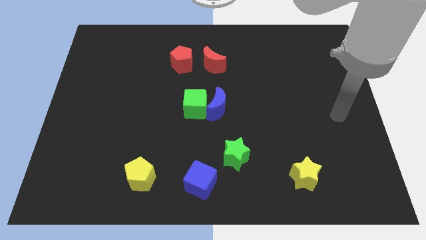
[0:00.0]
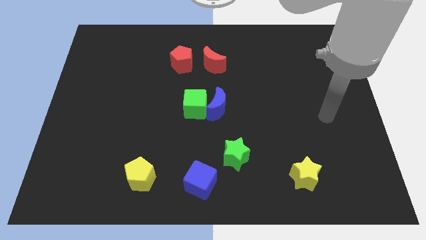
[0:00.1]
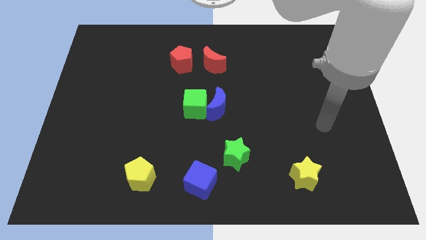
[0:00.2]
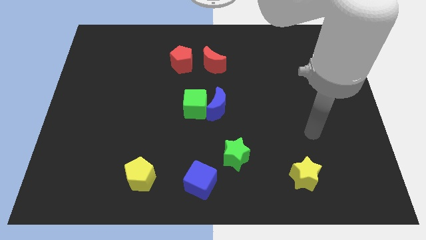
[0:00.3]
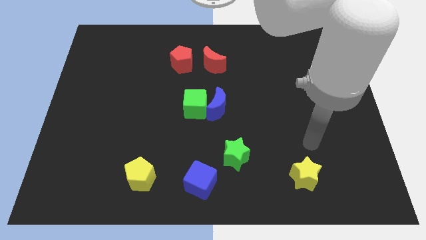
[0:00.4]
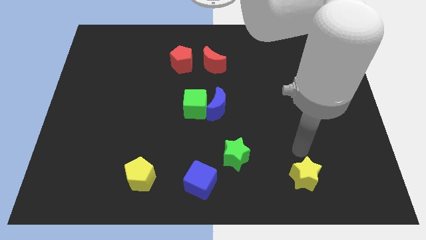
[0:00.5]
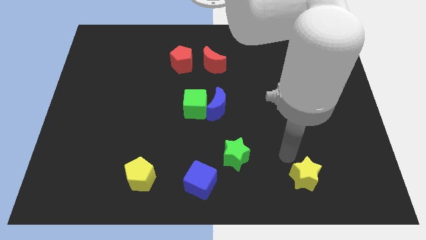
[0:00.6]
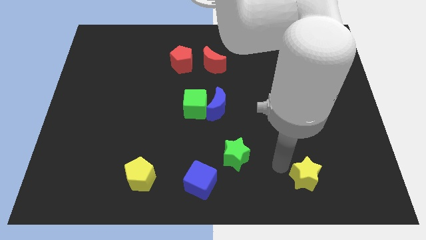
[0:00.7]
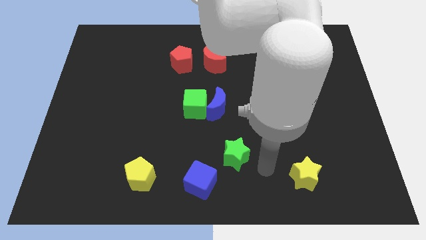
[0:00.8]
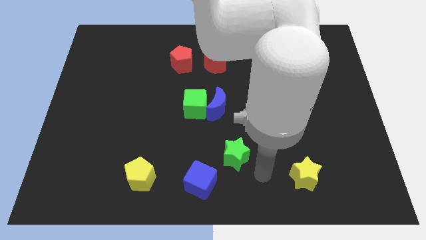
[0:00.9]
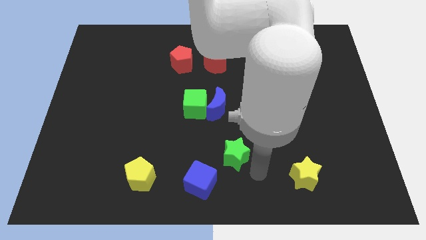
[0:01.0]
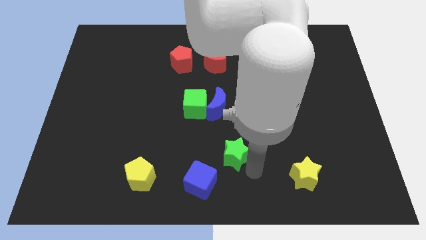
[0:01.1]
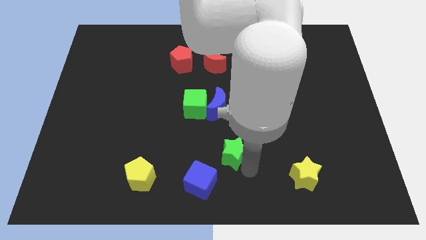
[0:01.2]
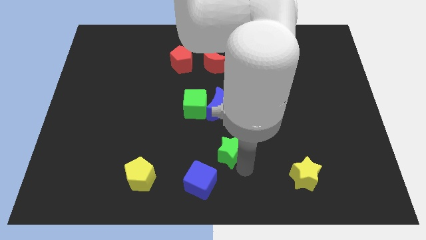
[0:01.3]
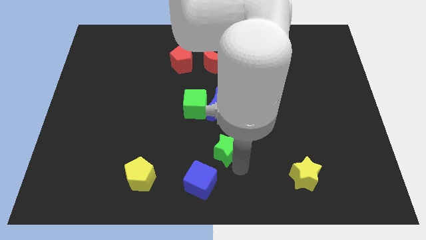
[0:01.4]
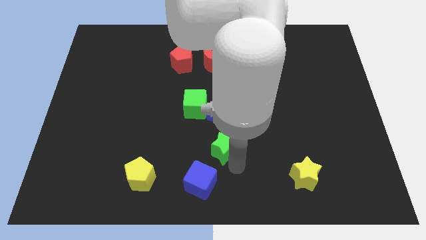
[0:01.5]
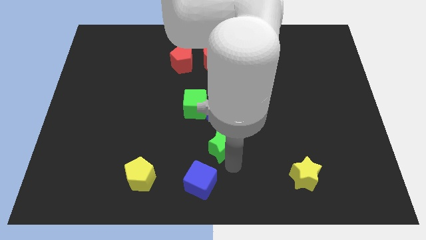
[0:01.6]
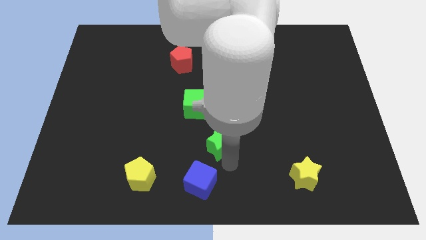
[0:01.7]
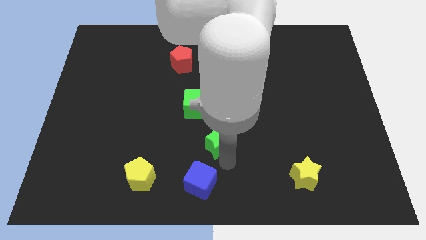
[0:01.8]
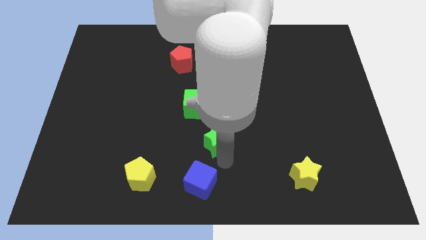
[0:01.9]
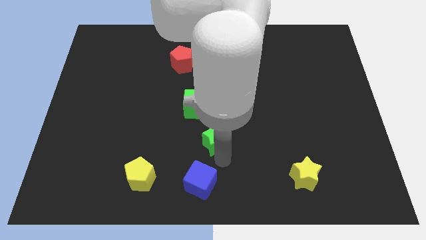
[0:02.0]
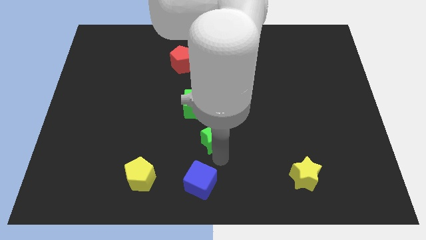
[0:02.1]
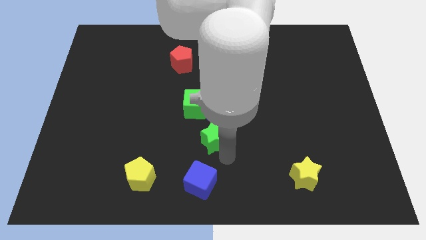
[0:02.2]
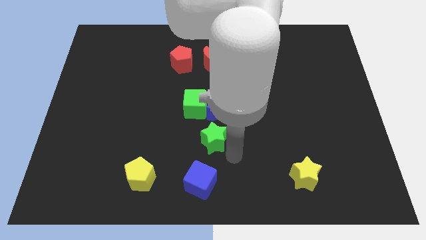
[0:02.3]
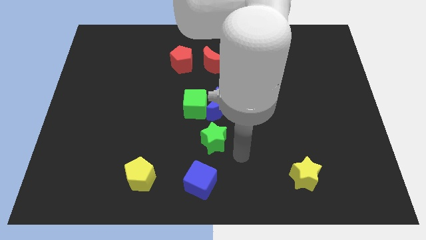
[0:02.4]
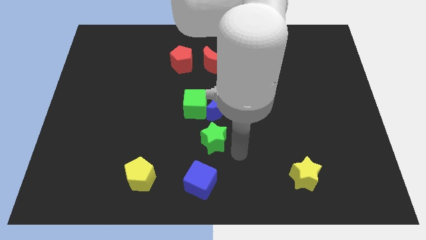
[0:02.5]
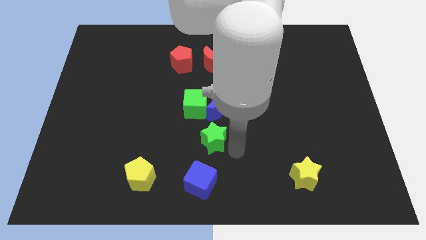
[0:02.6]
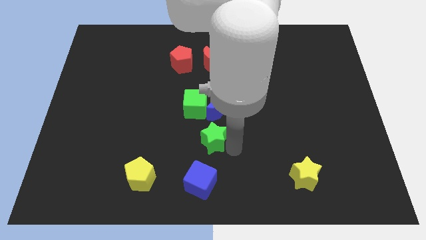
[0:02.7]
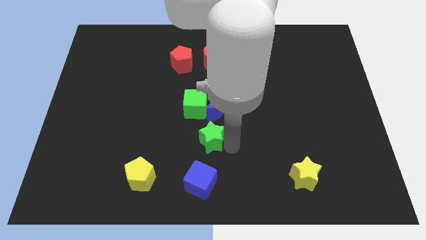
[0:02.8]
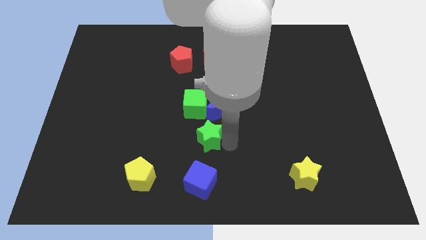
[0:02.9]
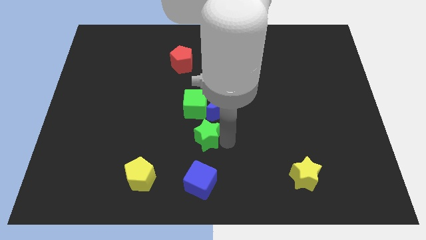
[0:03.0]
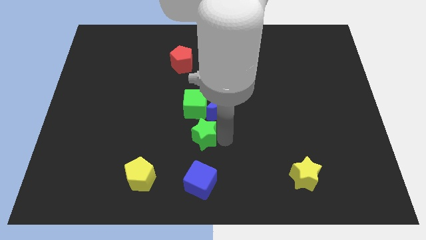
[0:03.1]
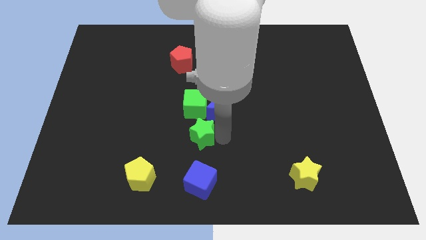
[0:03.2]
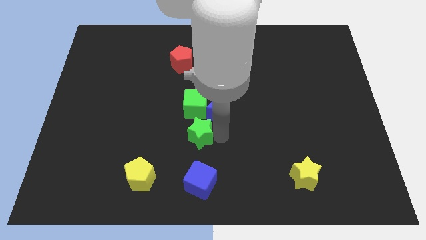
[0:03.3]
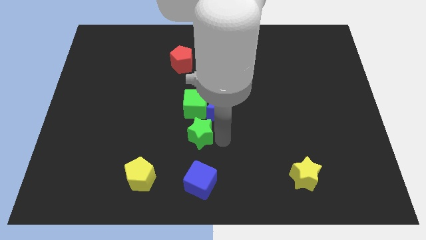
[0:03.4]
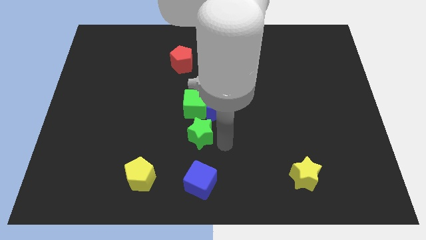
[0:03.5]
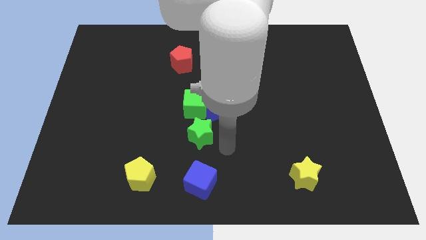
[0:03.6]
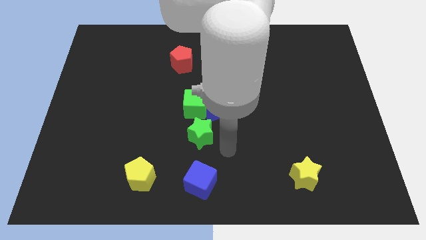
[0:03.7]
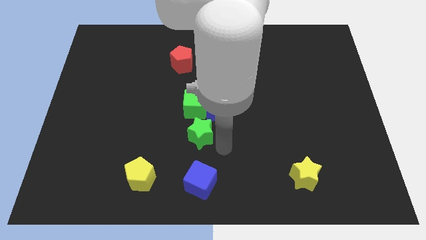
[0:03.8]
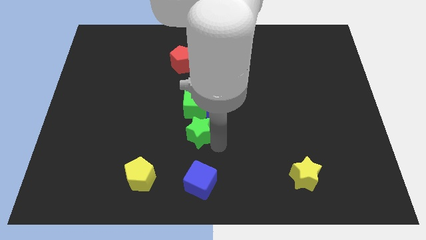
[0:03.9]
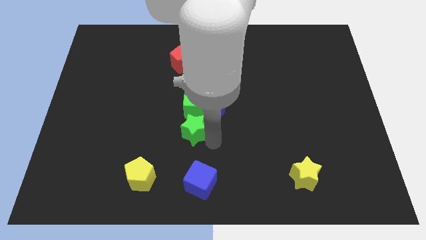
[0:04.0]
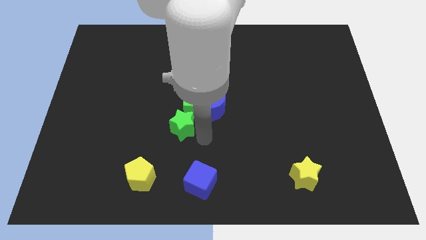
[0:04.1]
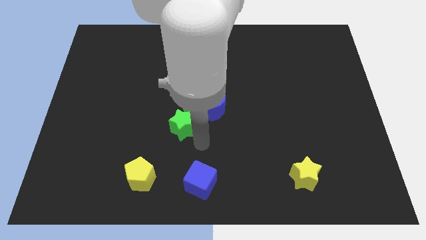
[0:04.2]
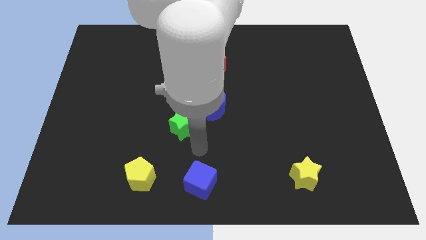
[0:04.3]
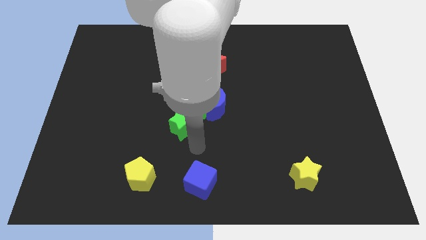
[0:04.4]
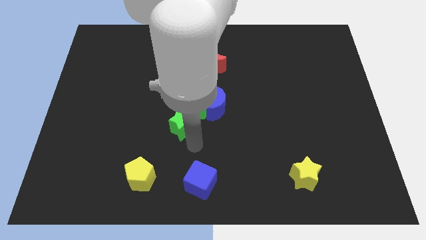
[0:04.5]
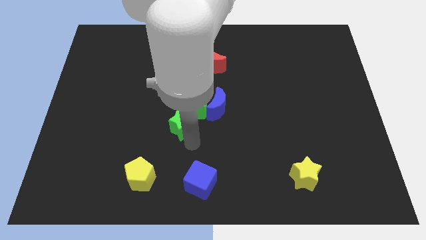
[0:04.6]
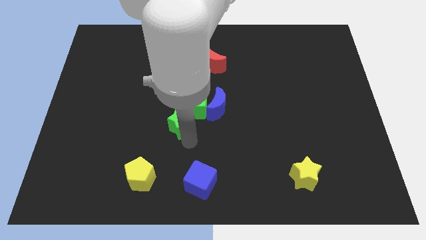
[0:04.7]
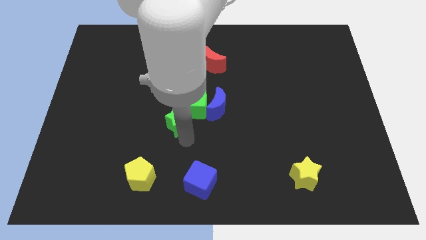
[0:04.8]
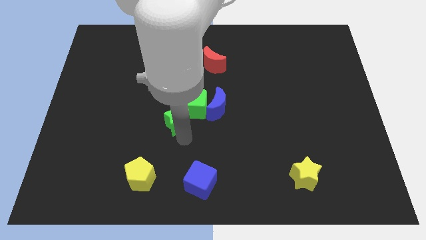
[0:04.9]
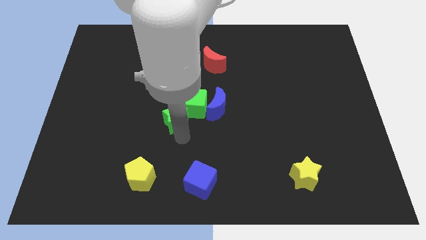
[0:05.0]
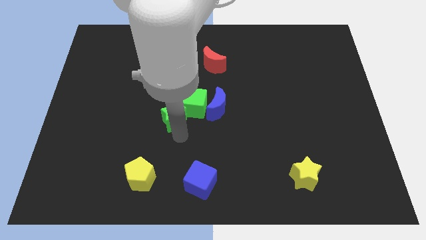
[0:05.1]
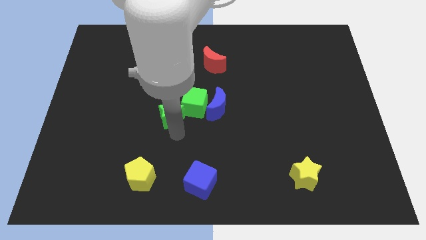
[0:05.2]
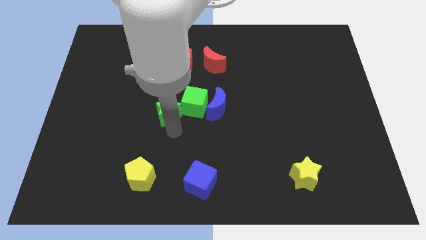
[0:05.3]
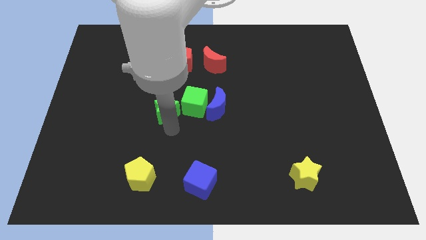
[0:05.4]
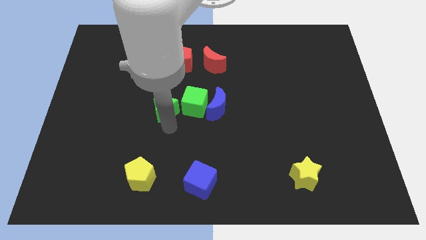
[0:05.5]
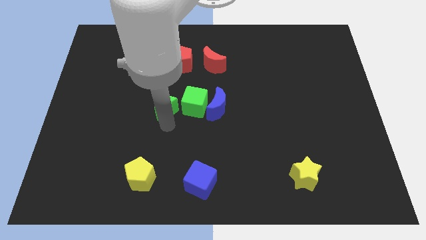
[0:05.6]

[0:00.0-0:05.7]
slide the green star upwards and left

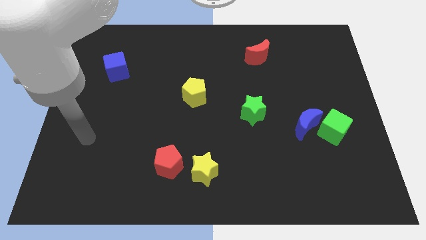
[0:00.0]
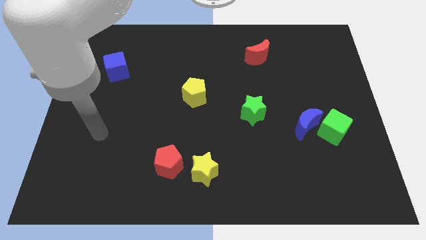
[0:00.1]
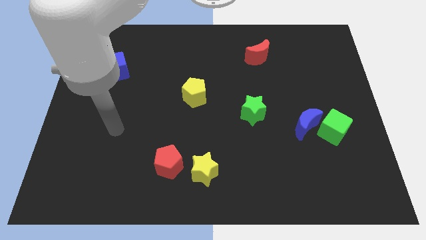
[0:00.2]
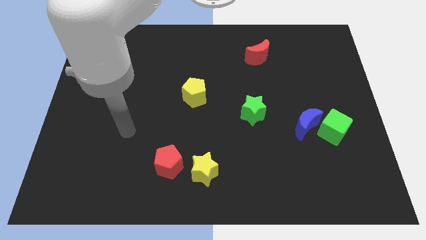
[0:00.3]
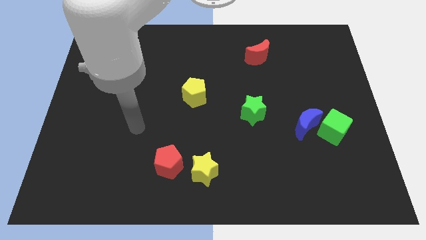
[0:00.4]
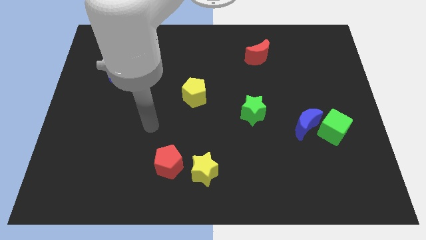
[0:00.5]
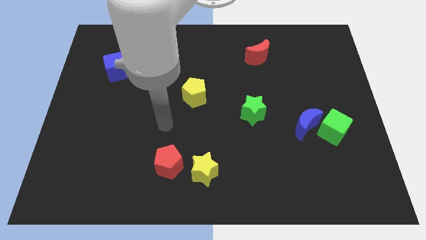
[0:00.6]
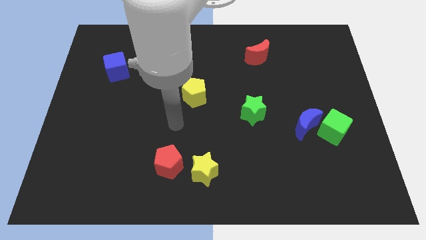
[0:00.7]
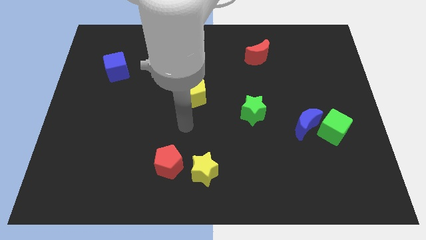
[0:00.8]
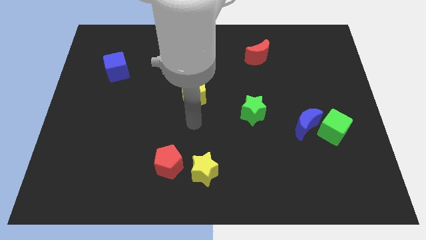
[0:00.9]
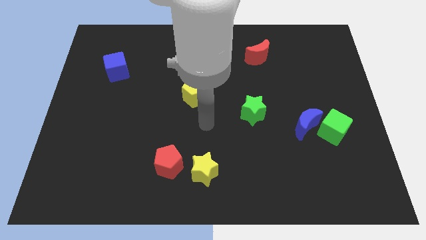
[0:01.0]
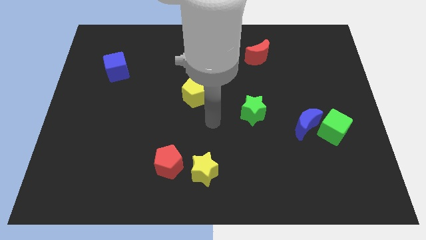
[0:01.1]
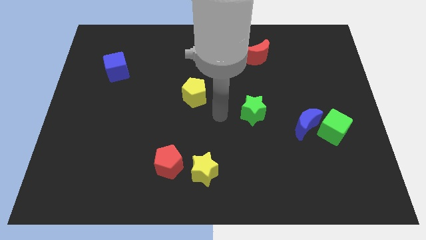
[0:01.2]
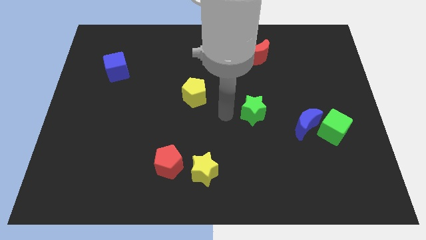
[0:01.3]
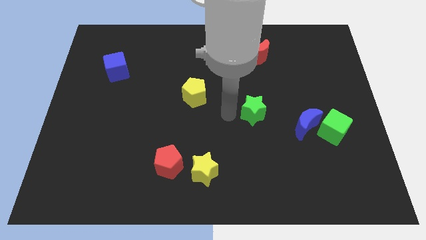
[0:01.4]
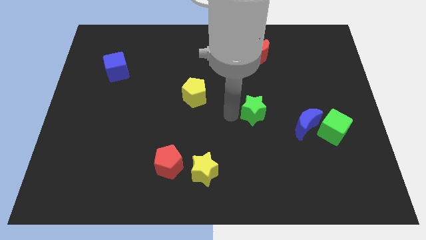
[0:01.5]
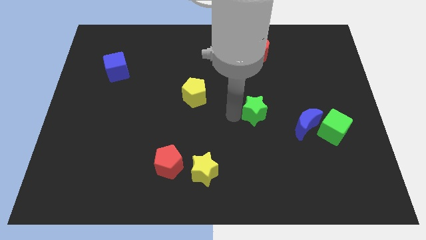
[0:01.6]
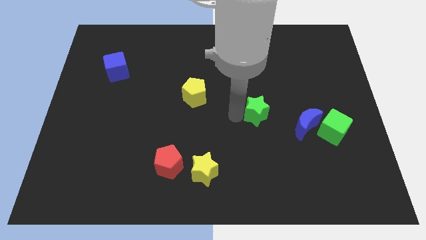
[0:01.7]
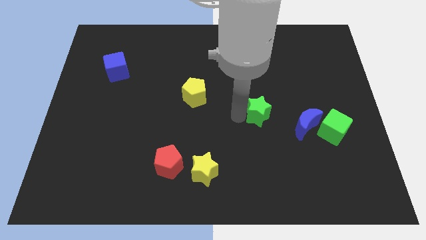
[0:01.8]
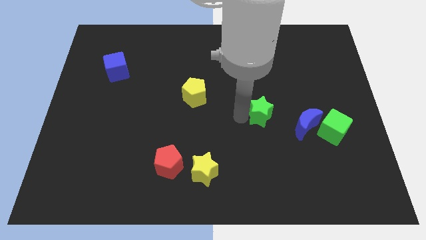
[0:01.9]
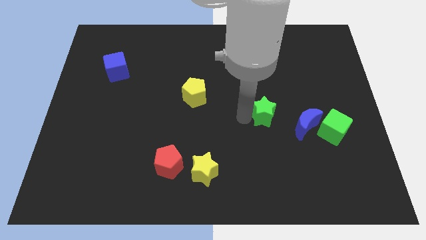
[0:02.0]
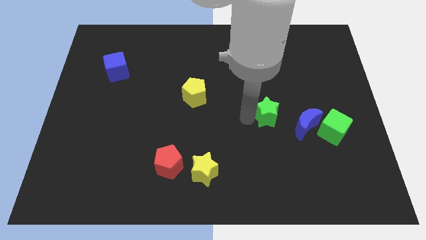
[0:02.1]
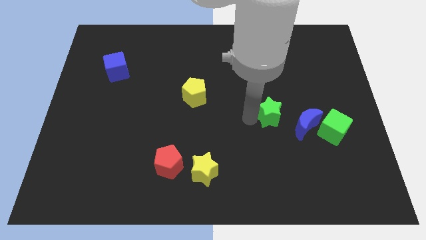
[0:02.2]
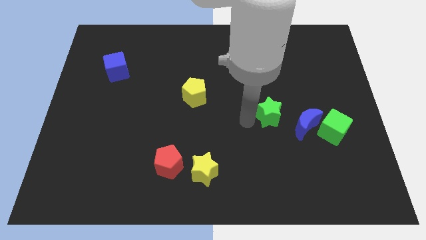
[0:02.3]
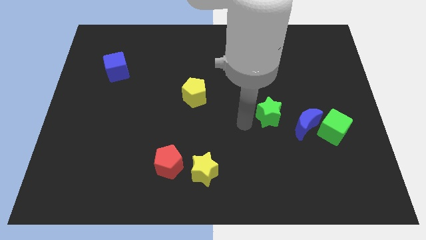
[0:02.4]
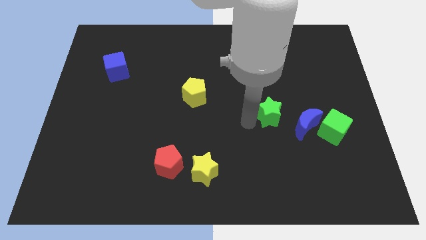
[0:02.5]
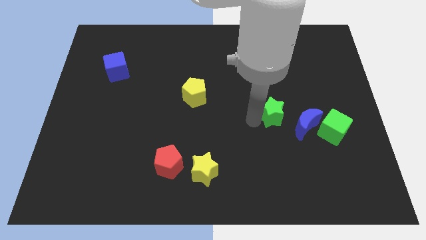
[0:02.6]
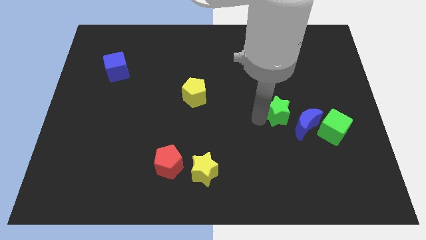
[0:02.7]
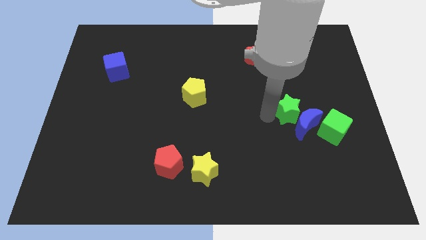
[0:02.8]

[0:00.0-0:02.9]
push the green star a little to the right
